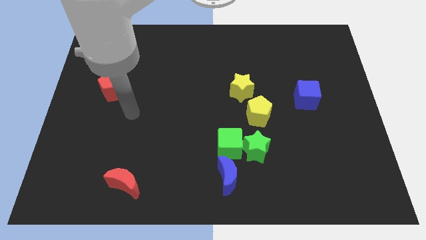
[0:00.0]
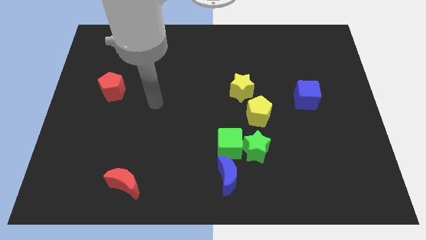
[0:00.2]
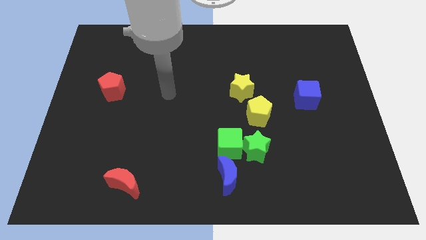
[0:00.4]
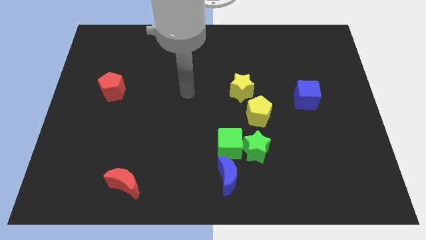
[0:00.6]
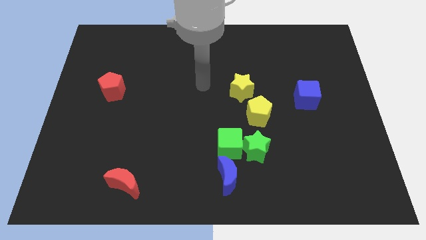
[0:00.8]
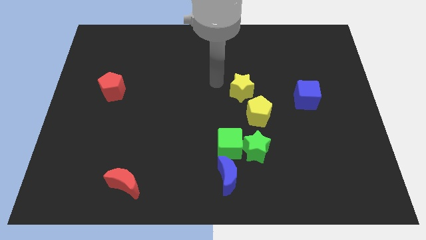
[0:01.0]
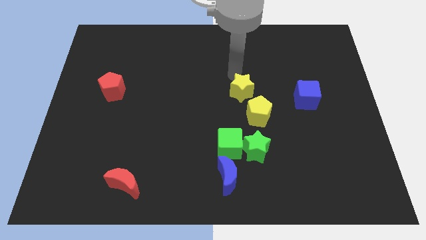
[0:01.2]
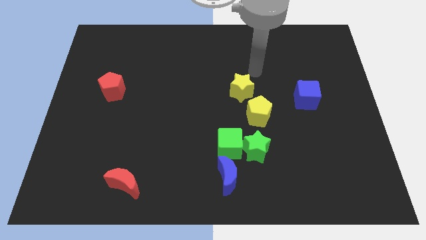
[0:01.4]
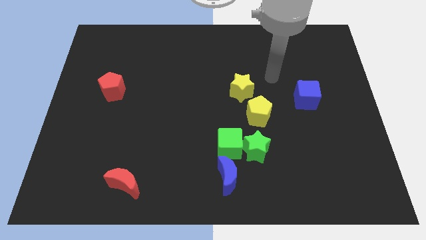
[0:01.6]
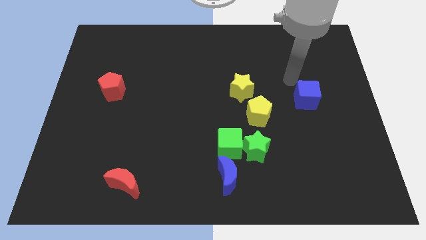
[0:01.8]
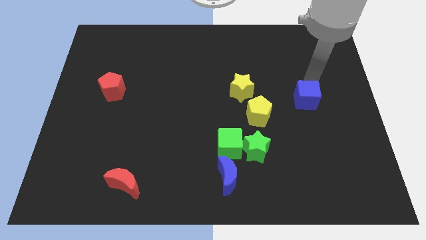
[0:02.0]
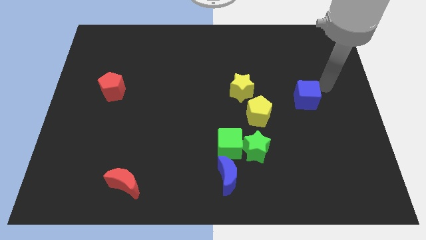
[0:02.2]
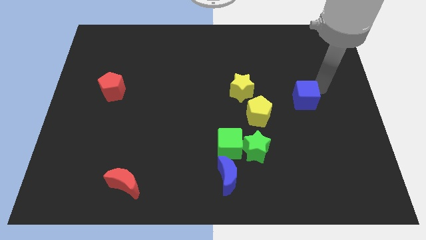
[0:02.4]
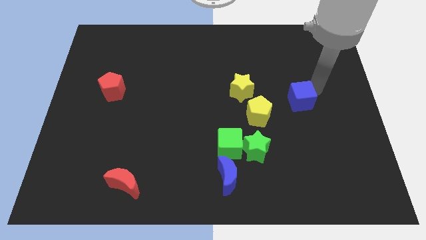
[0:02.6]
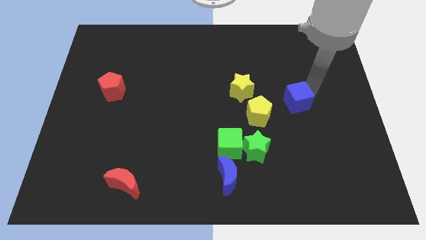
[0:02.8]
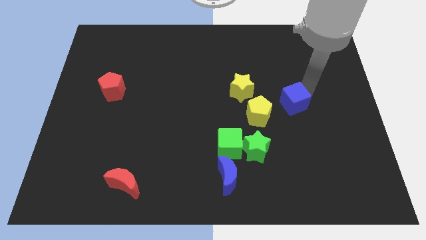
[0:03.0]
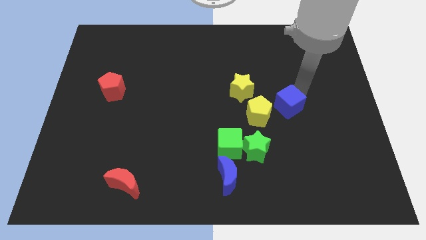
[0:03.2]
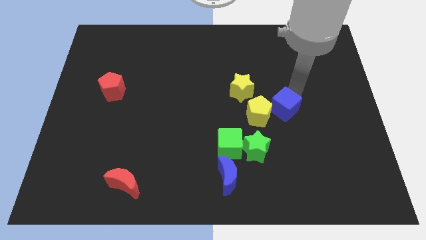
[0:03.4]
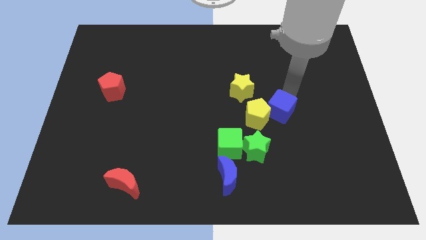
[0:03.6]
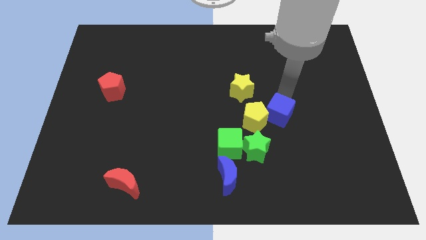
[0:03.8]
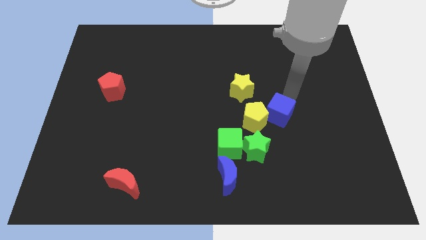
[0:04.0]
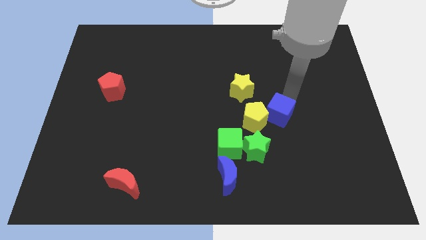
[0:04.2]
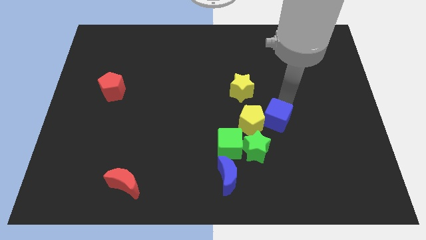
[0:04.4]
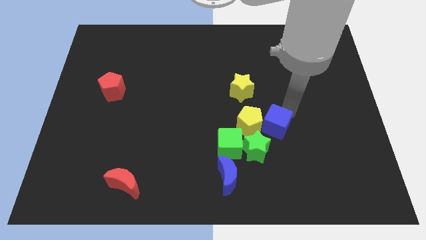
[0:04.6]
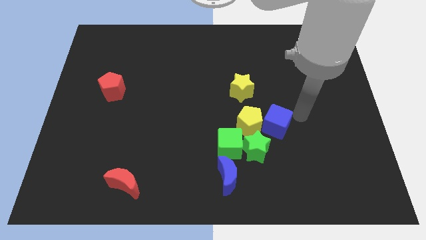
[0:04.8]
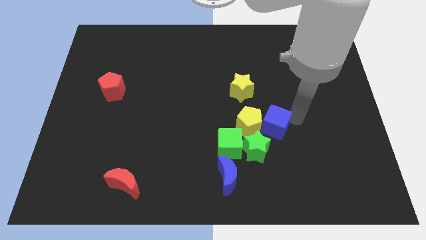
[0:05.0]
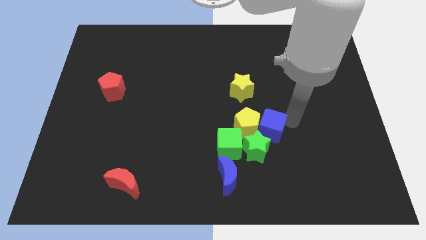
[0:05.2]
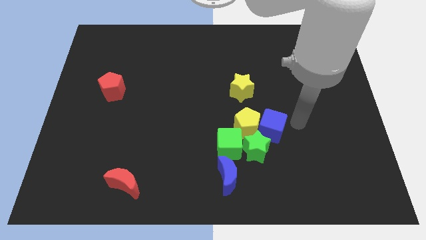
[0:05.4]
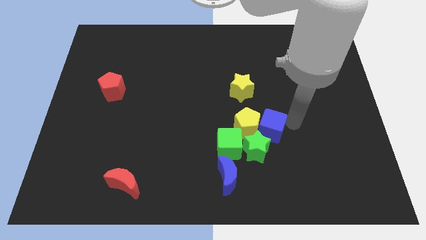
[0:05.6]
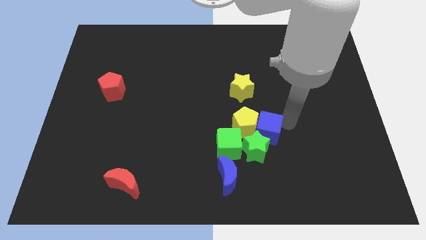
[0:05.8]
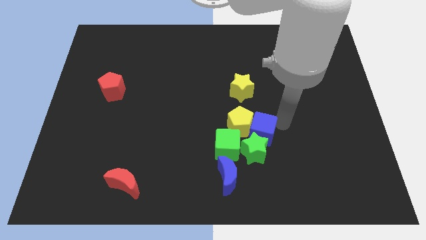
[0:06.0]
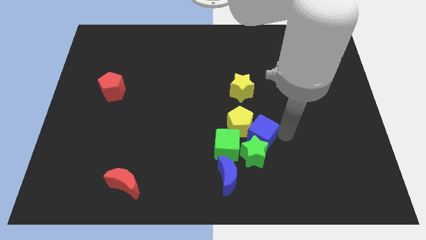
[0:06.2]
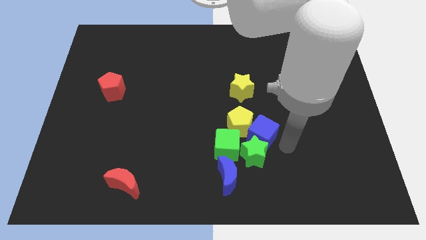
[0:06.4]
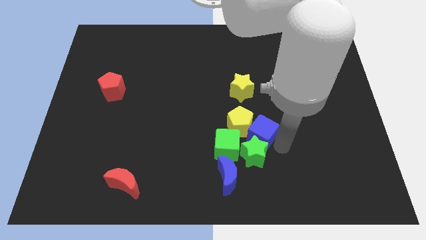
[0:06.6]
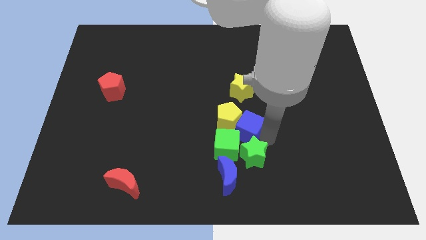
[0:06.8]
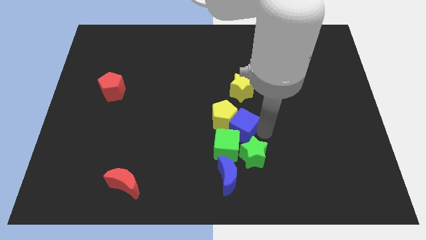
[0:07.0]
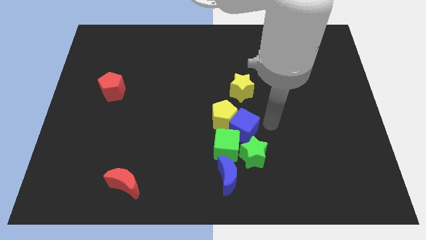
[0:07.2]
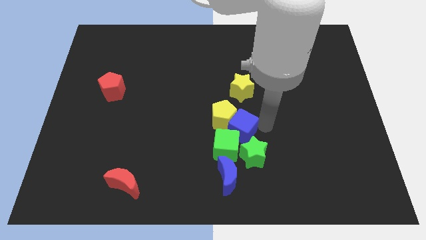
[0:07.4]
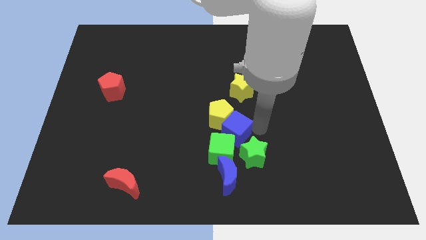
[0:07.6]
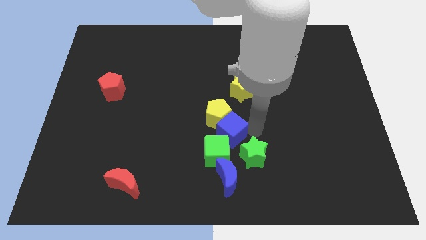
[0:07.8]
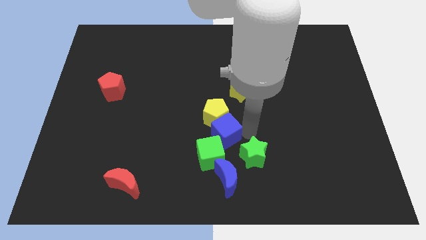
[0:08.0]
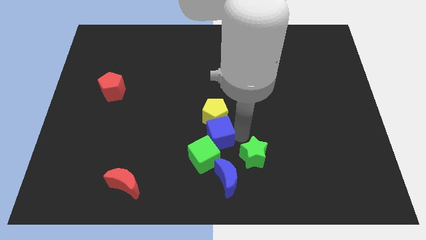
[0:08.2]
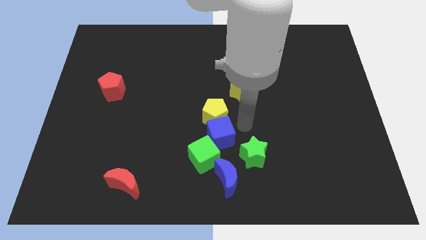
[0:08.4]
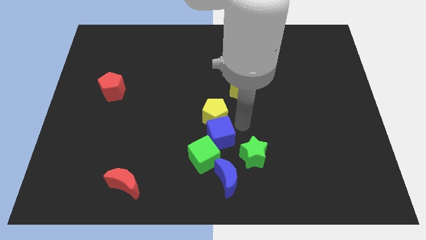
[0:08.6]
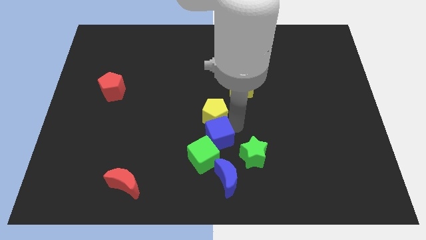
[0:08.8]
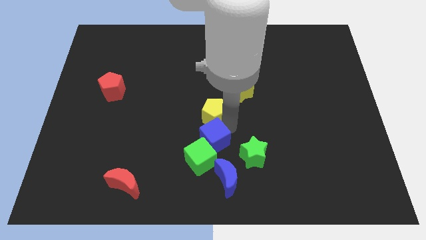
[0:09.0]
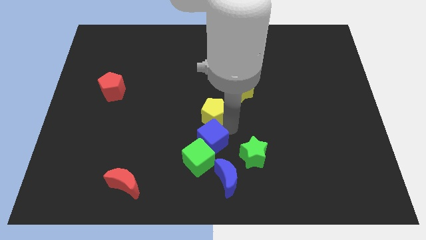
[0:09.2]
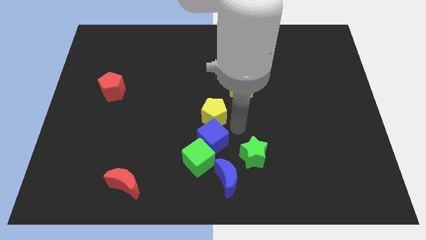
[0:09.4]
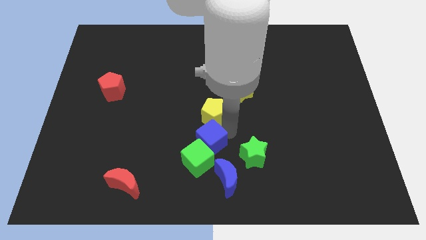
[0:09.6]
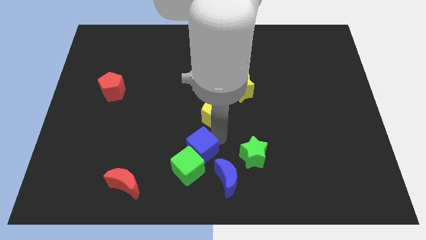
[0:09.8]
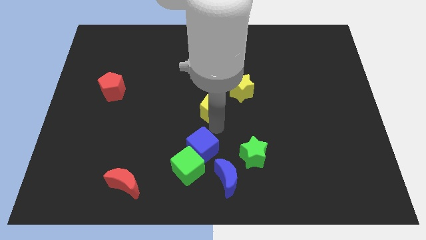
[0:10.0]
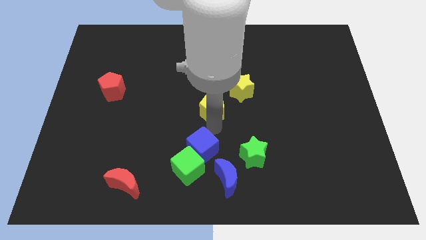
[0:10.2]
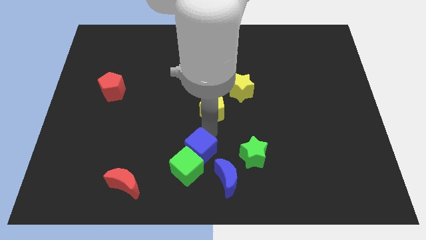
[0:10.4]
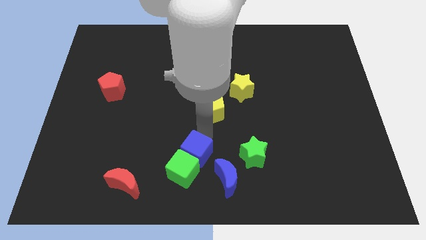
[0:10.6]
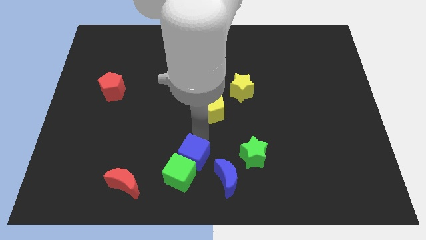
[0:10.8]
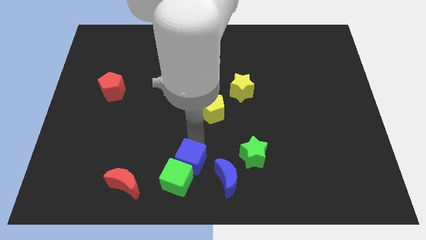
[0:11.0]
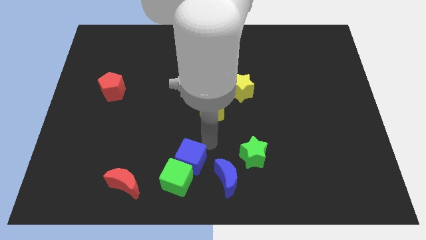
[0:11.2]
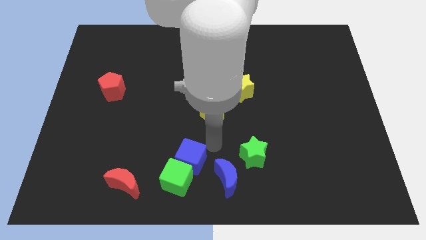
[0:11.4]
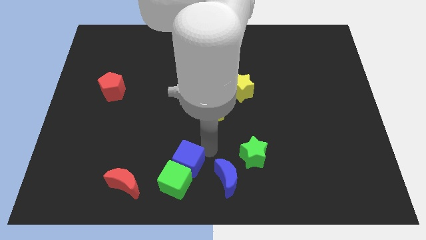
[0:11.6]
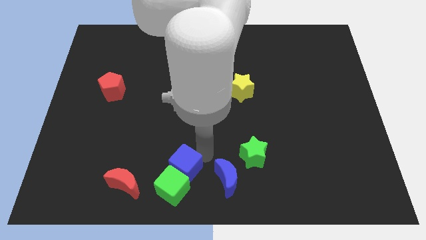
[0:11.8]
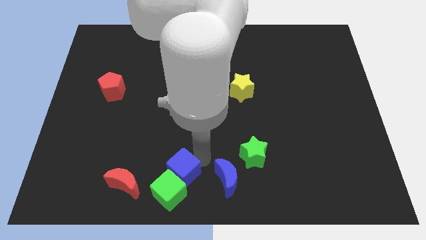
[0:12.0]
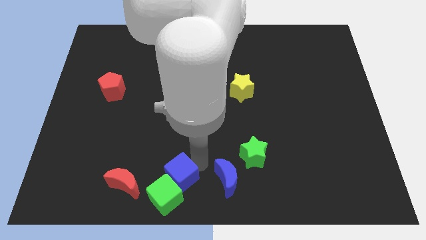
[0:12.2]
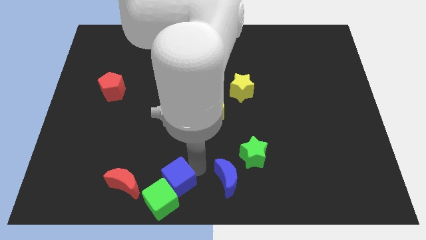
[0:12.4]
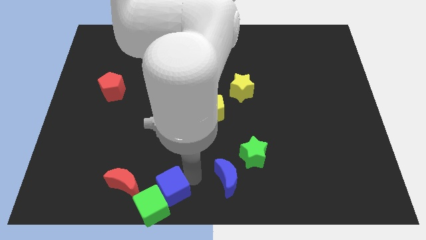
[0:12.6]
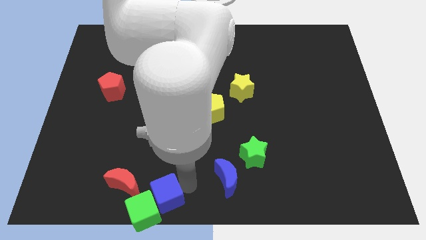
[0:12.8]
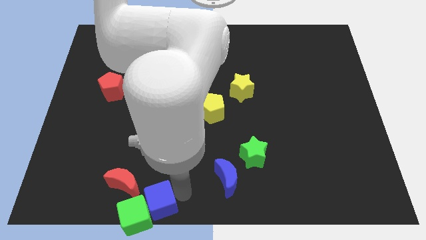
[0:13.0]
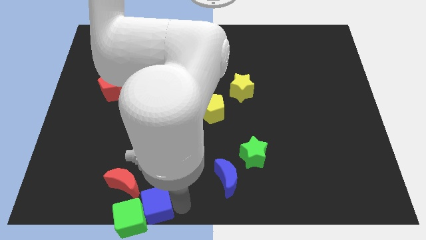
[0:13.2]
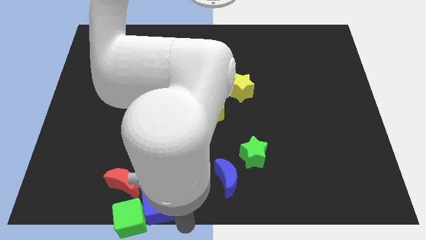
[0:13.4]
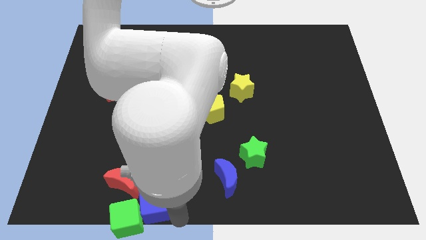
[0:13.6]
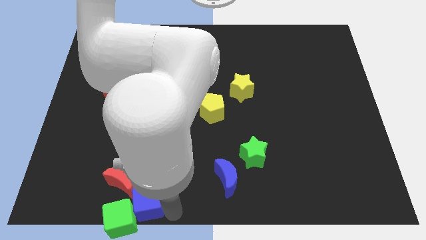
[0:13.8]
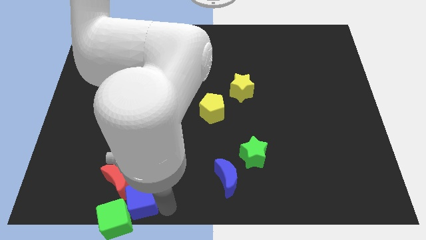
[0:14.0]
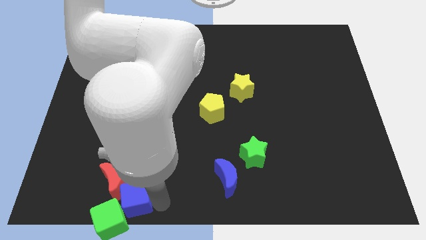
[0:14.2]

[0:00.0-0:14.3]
slide the blue cube to the red moon
